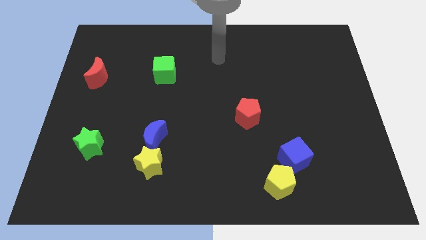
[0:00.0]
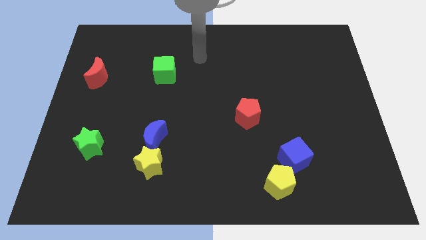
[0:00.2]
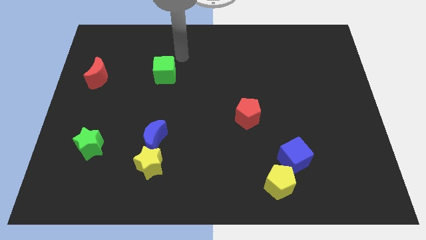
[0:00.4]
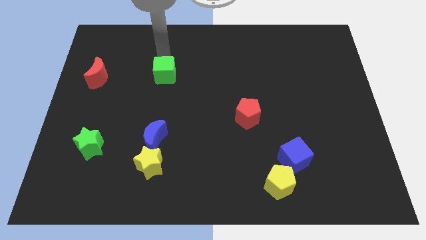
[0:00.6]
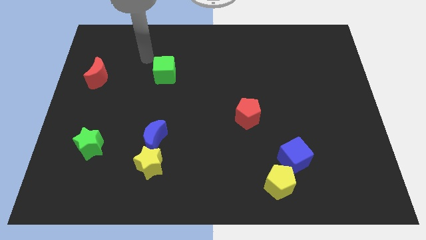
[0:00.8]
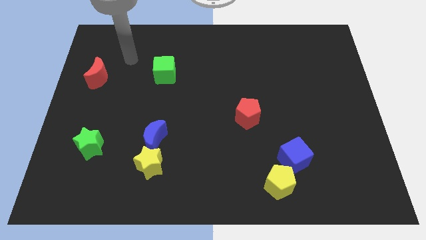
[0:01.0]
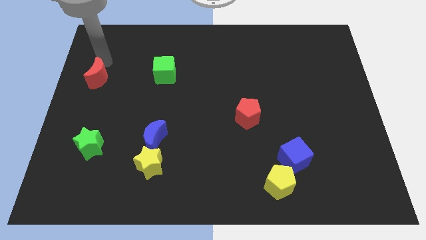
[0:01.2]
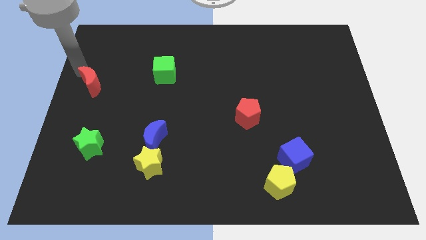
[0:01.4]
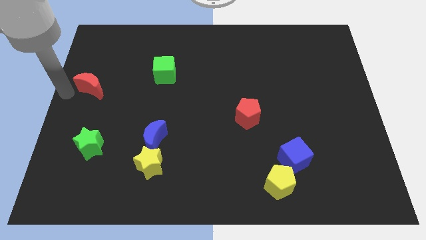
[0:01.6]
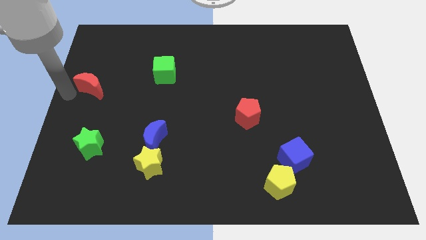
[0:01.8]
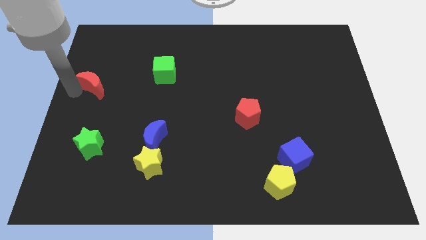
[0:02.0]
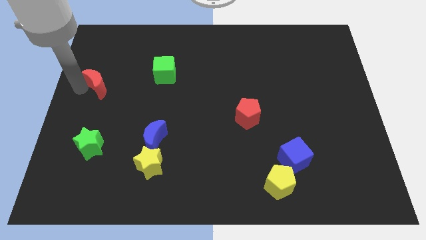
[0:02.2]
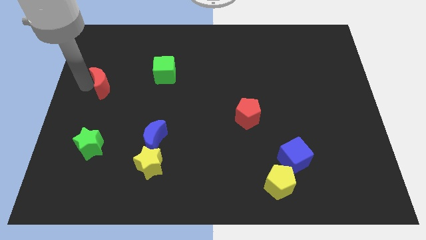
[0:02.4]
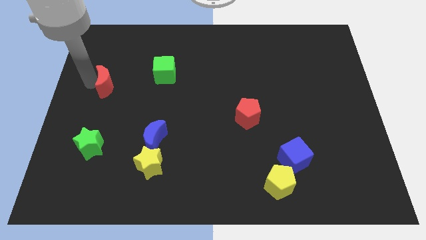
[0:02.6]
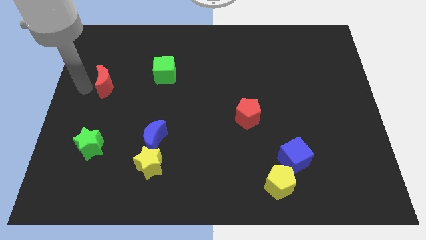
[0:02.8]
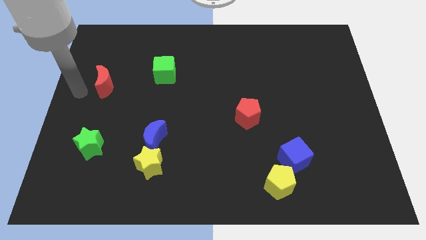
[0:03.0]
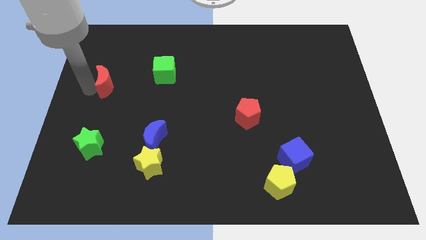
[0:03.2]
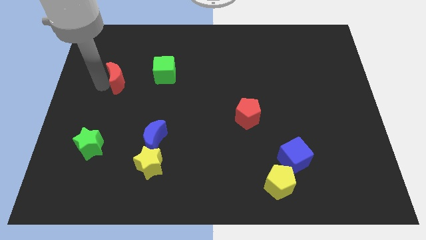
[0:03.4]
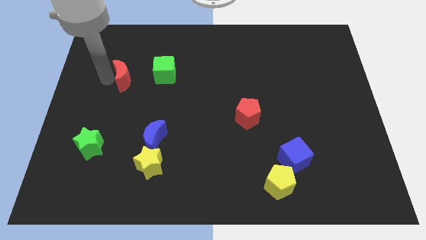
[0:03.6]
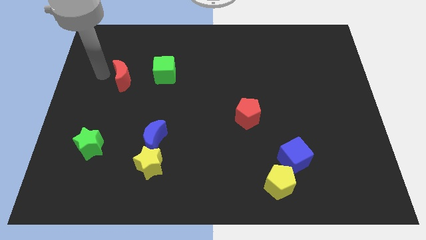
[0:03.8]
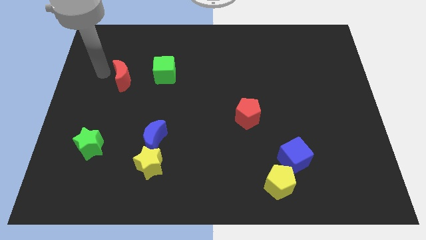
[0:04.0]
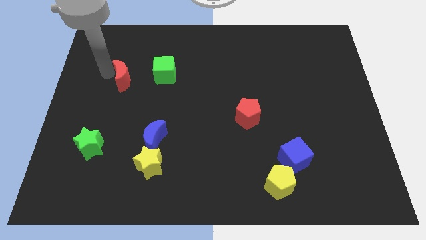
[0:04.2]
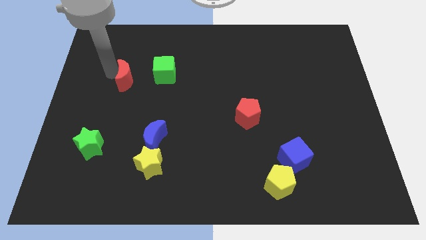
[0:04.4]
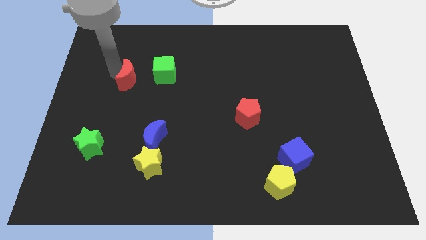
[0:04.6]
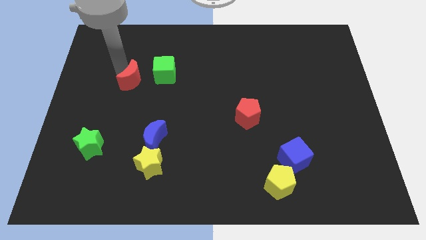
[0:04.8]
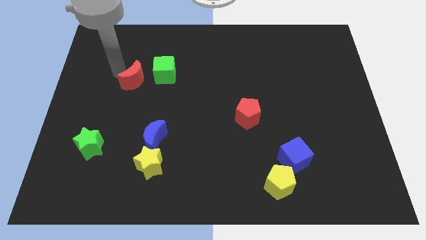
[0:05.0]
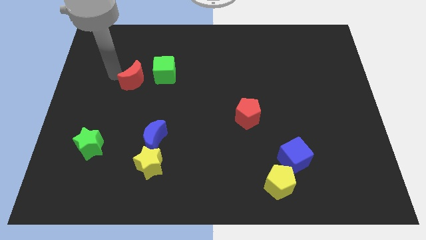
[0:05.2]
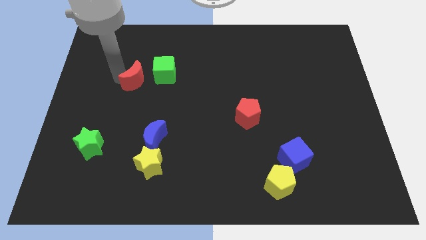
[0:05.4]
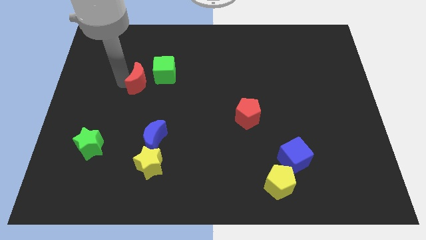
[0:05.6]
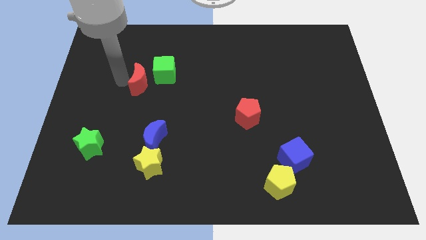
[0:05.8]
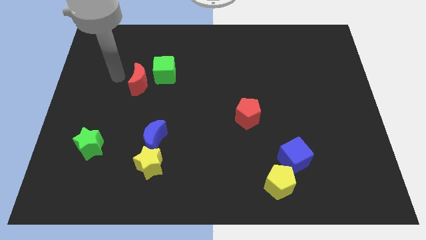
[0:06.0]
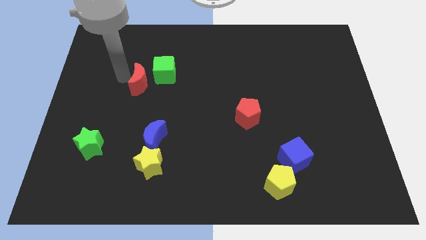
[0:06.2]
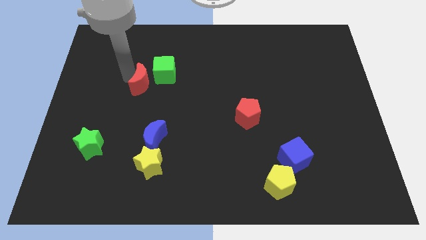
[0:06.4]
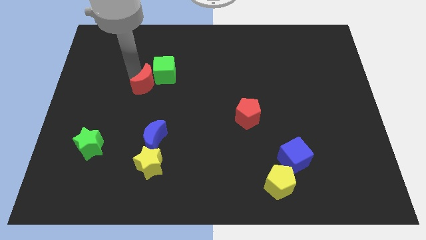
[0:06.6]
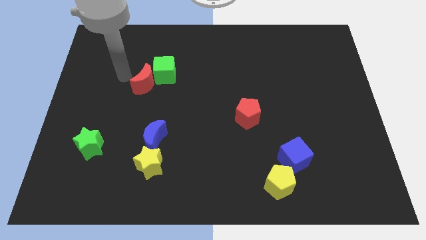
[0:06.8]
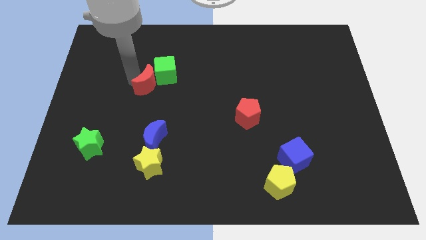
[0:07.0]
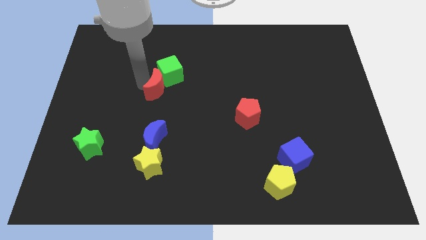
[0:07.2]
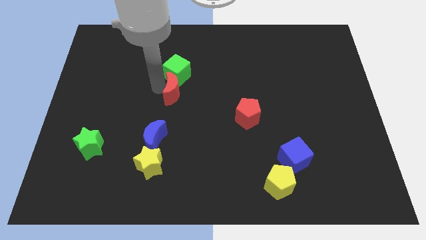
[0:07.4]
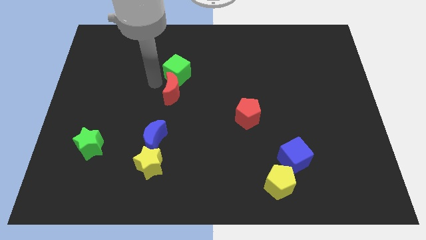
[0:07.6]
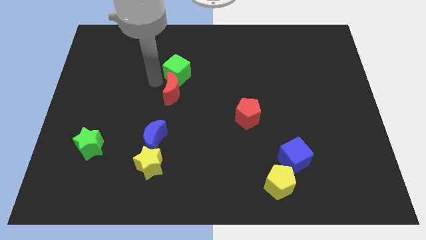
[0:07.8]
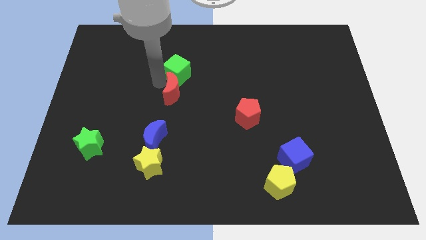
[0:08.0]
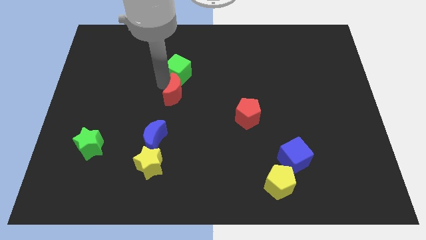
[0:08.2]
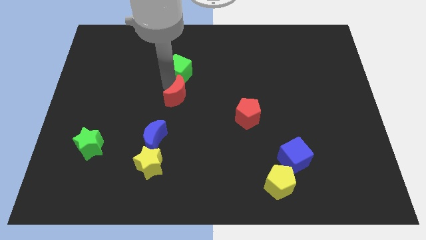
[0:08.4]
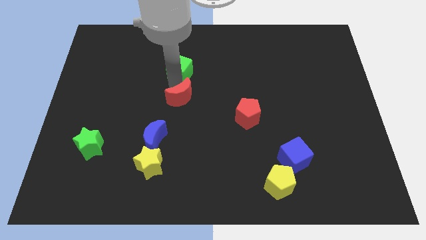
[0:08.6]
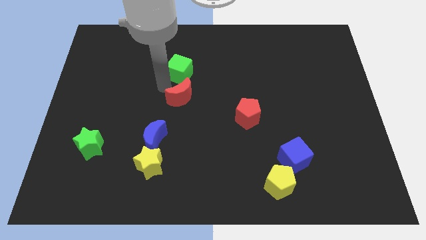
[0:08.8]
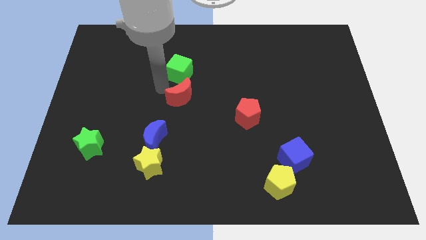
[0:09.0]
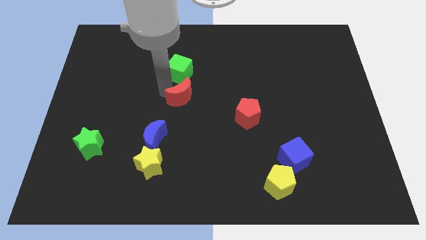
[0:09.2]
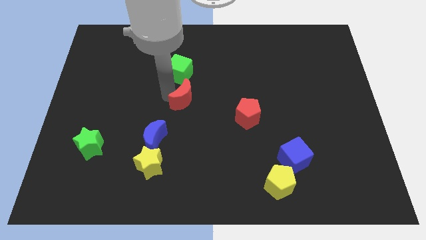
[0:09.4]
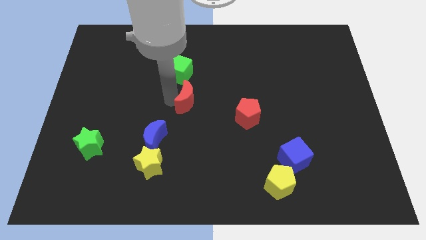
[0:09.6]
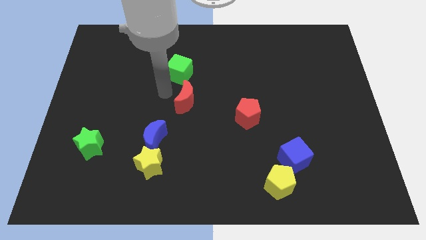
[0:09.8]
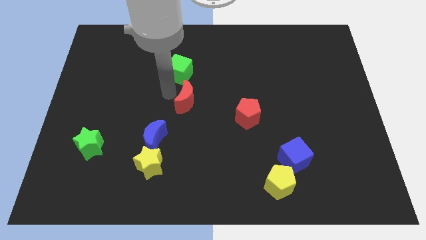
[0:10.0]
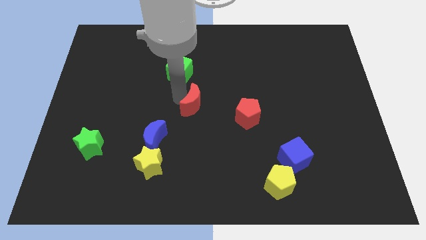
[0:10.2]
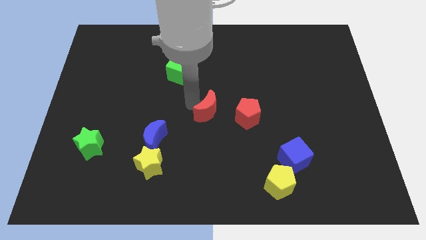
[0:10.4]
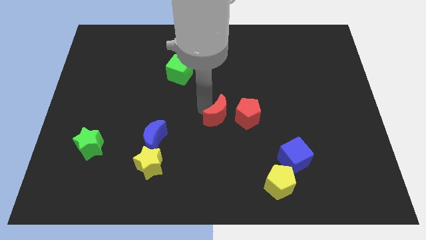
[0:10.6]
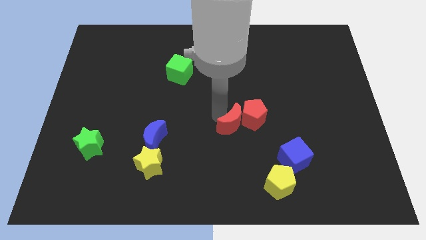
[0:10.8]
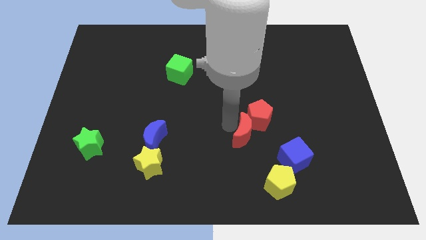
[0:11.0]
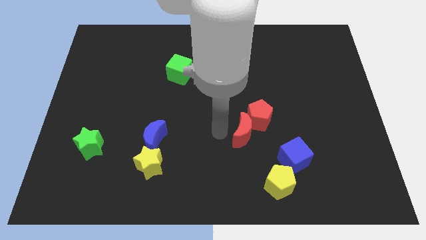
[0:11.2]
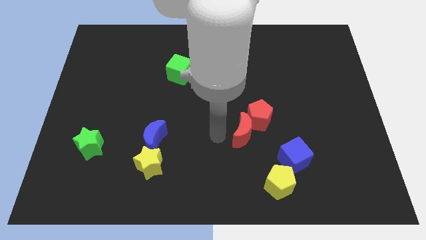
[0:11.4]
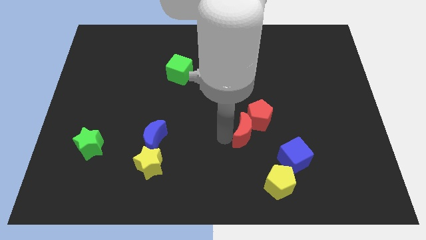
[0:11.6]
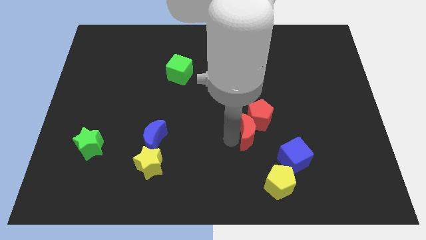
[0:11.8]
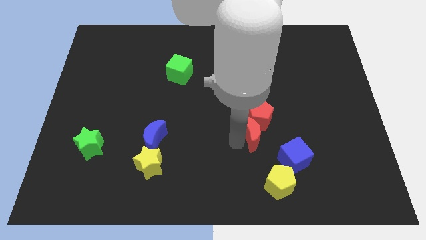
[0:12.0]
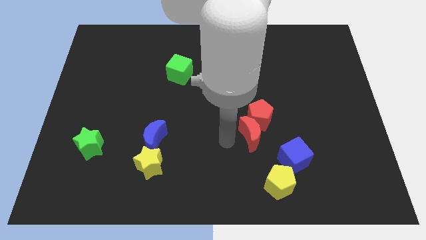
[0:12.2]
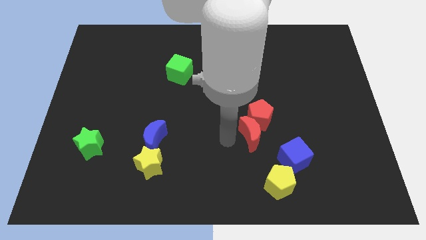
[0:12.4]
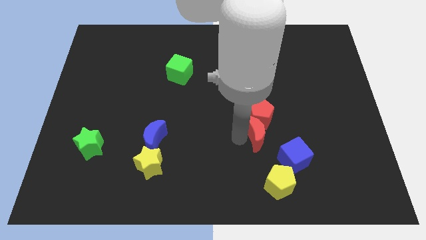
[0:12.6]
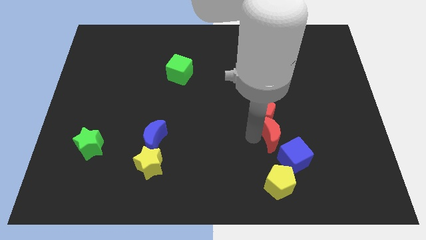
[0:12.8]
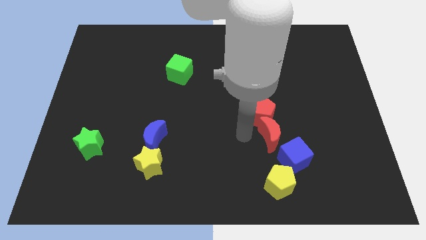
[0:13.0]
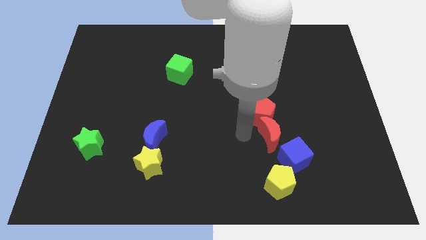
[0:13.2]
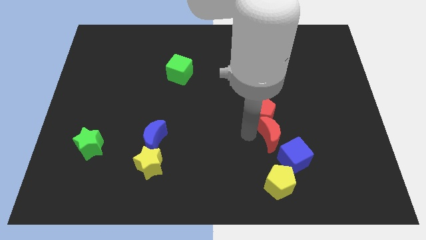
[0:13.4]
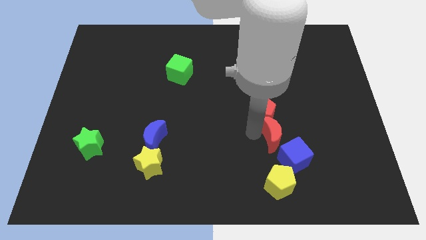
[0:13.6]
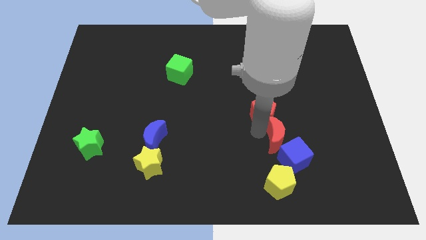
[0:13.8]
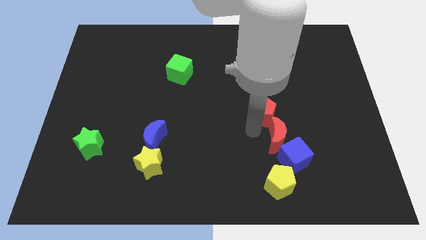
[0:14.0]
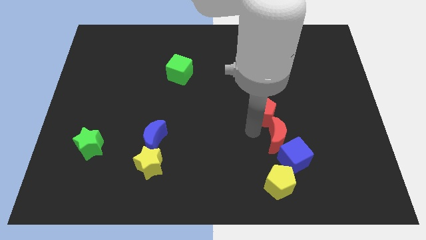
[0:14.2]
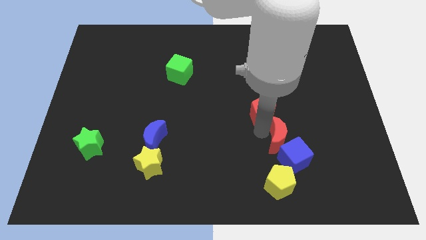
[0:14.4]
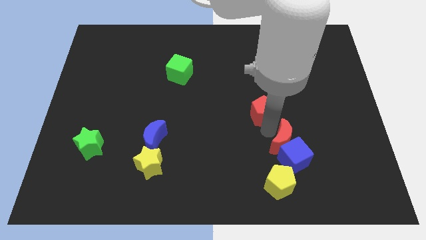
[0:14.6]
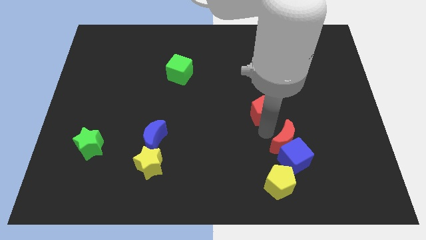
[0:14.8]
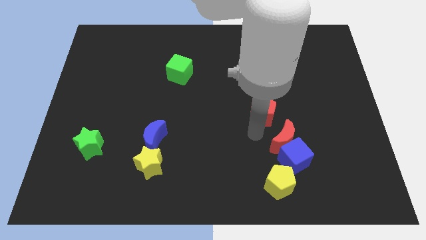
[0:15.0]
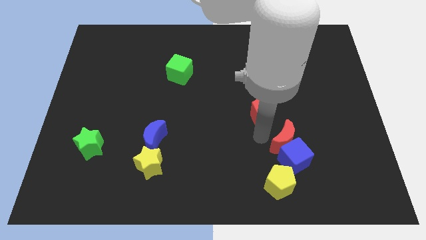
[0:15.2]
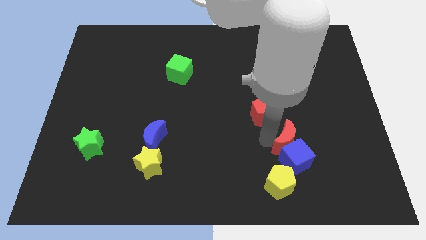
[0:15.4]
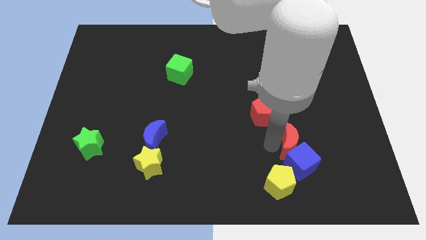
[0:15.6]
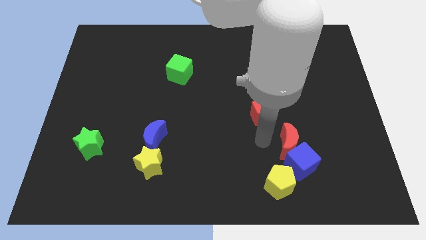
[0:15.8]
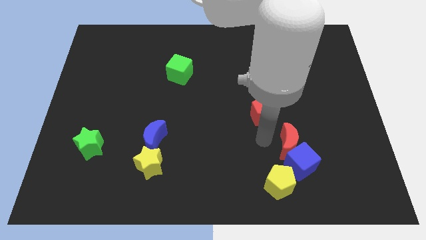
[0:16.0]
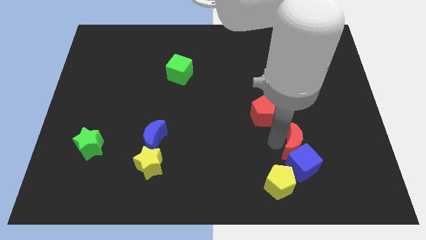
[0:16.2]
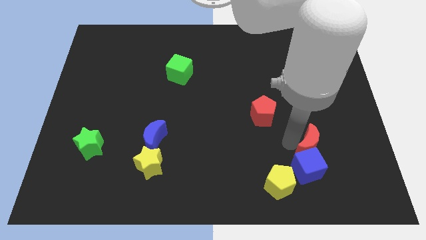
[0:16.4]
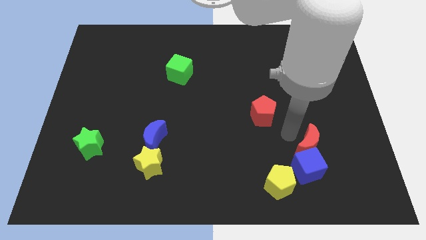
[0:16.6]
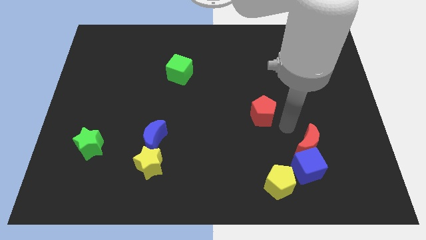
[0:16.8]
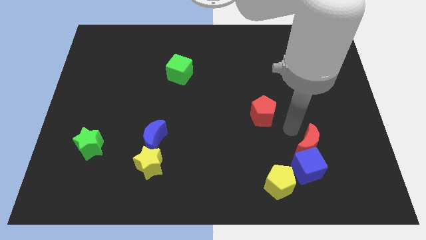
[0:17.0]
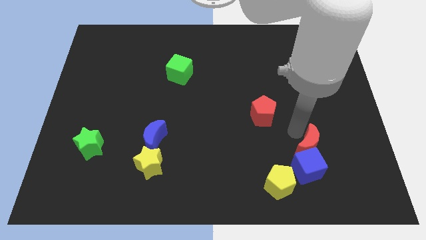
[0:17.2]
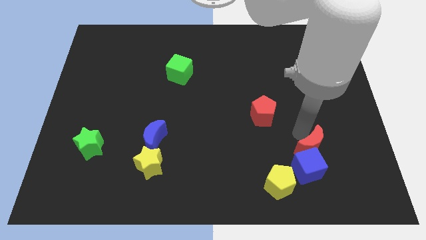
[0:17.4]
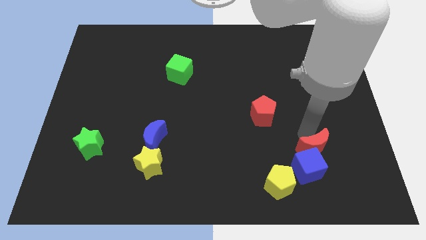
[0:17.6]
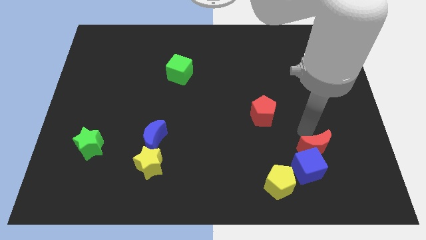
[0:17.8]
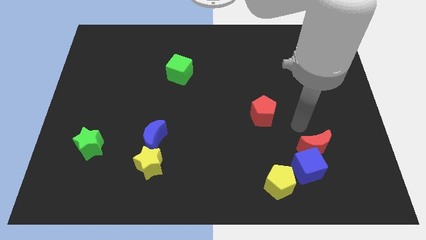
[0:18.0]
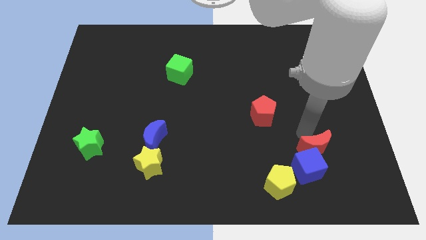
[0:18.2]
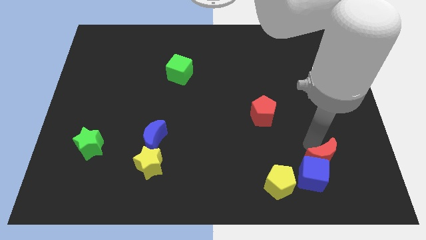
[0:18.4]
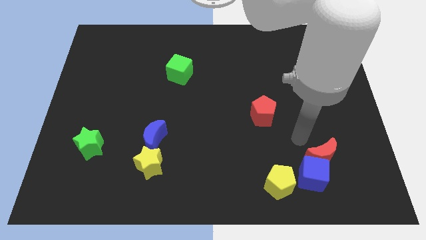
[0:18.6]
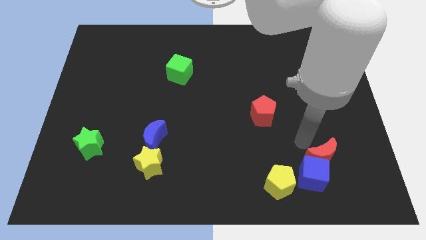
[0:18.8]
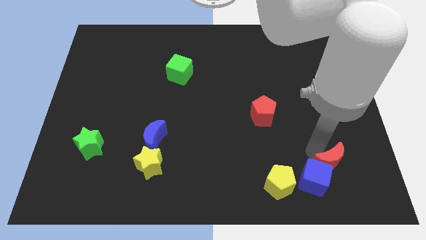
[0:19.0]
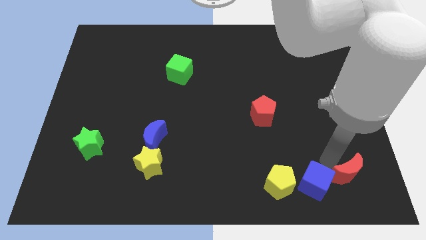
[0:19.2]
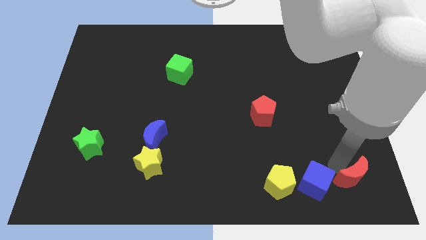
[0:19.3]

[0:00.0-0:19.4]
push the red moon to the bottom right of the board
